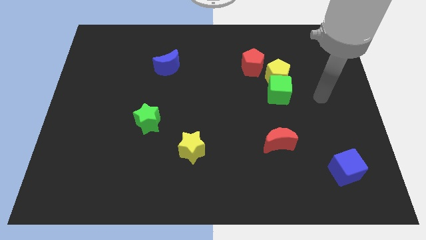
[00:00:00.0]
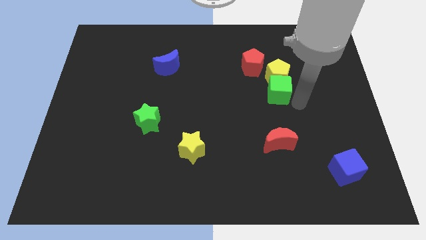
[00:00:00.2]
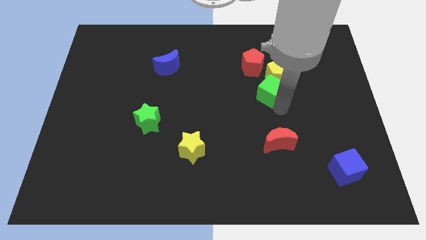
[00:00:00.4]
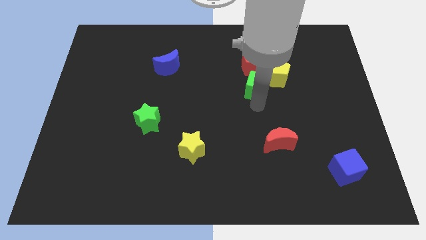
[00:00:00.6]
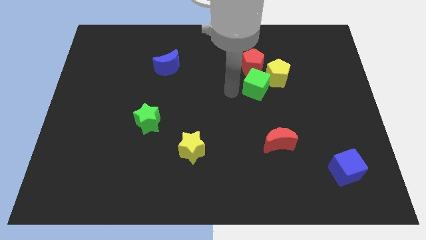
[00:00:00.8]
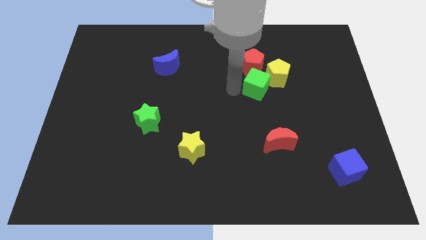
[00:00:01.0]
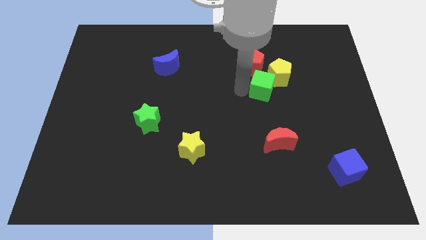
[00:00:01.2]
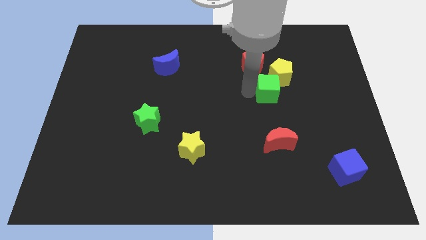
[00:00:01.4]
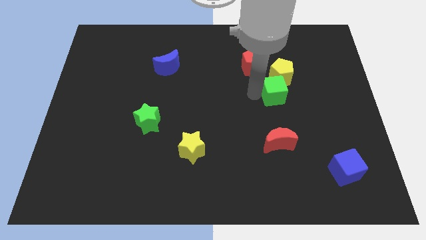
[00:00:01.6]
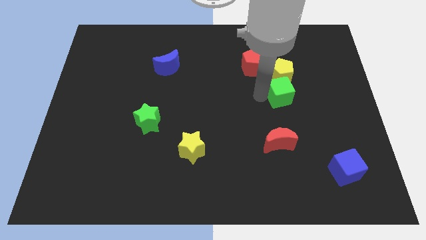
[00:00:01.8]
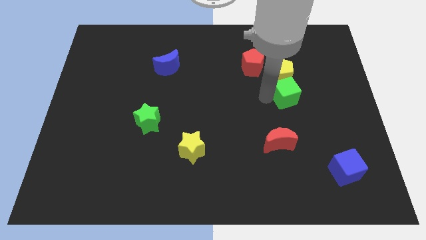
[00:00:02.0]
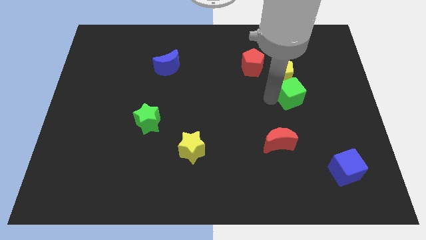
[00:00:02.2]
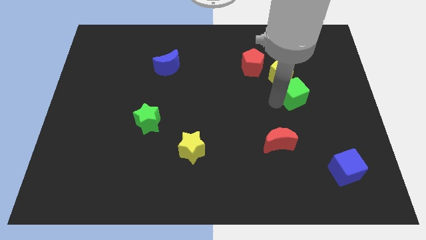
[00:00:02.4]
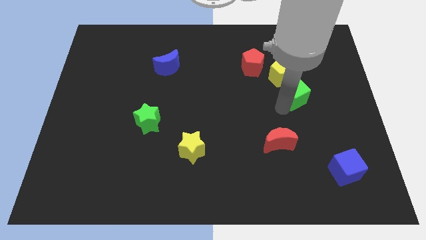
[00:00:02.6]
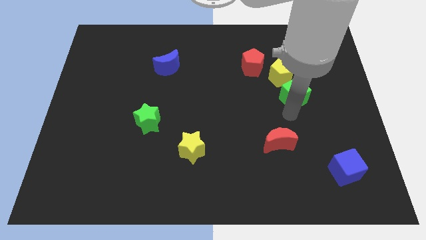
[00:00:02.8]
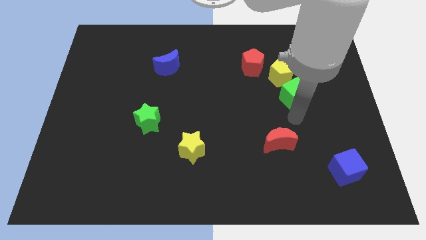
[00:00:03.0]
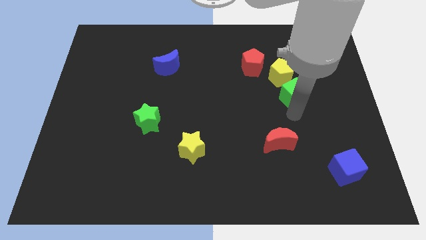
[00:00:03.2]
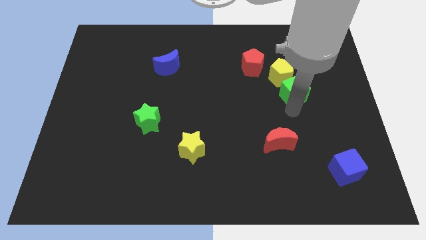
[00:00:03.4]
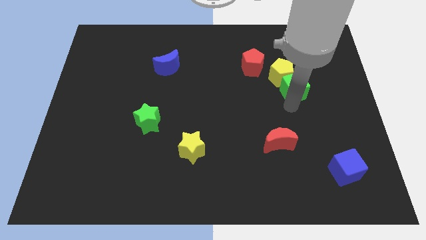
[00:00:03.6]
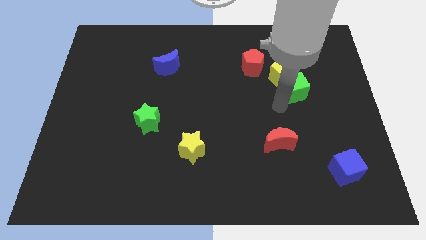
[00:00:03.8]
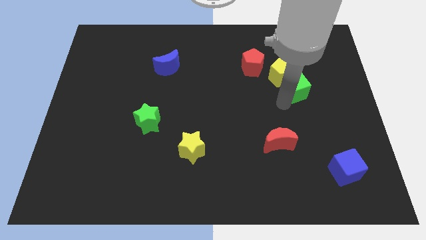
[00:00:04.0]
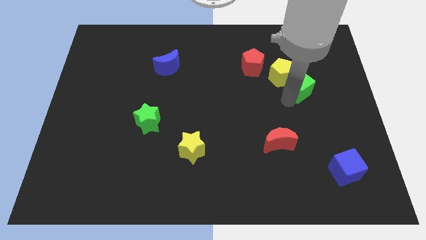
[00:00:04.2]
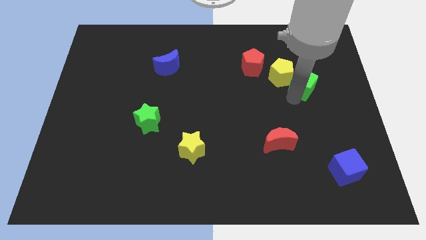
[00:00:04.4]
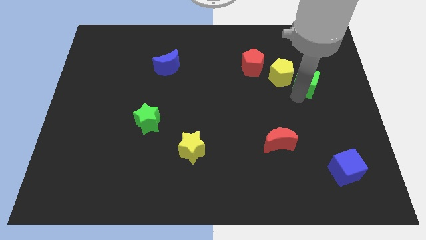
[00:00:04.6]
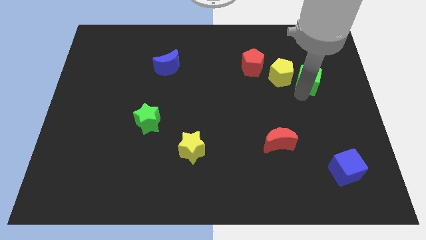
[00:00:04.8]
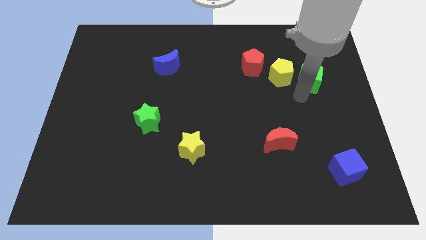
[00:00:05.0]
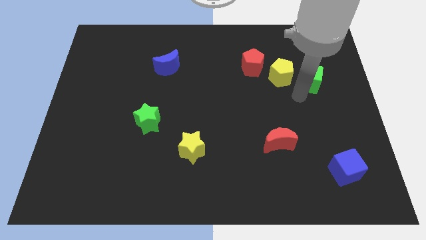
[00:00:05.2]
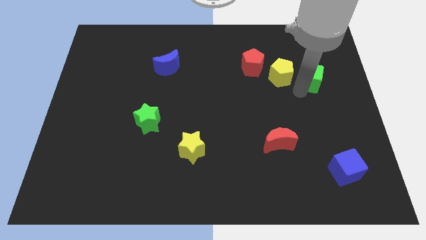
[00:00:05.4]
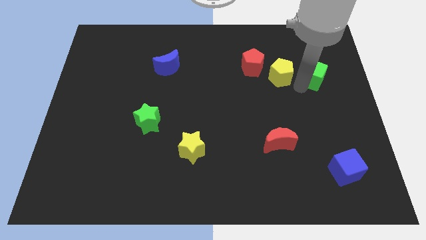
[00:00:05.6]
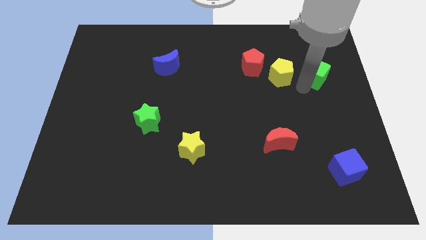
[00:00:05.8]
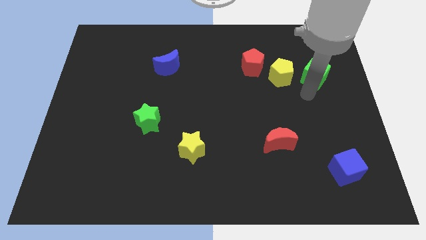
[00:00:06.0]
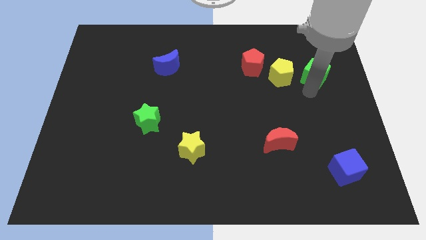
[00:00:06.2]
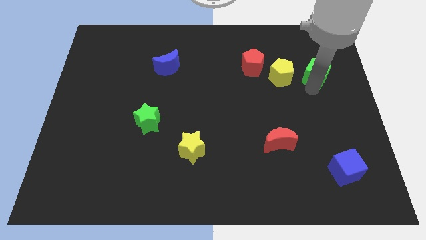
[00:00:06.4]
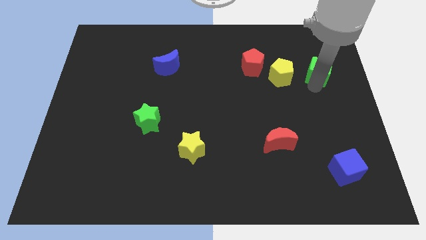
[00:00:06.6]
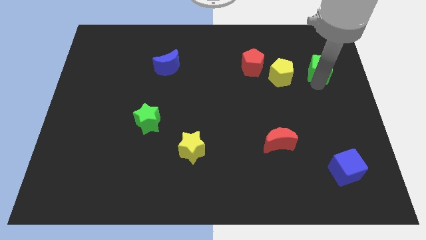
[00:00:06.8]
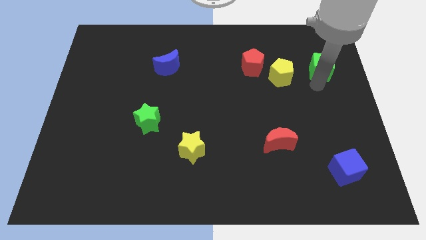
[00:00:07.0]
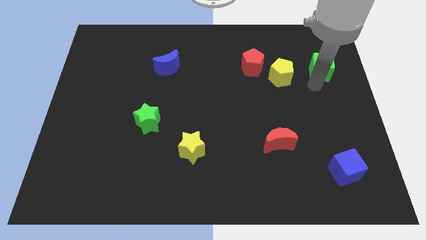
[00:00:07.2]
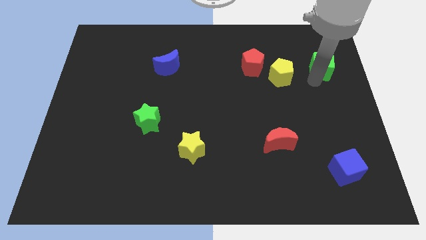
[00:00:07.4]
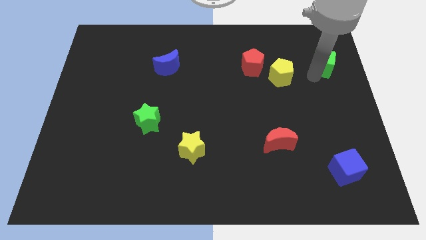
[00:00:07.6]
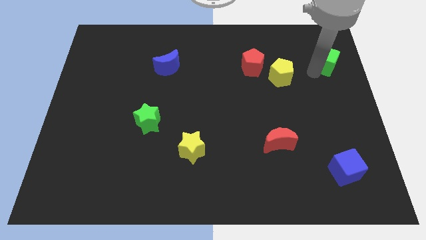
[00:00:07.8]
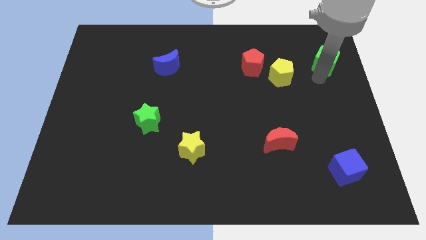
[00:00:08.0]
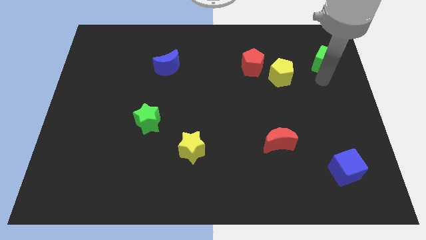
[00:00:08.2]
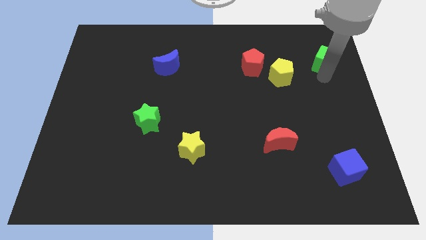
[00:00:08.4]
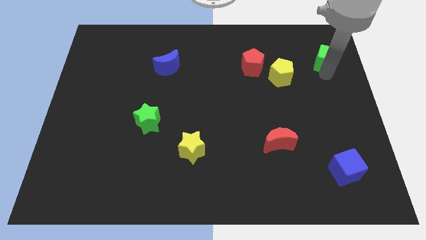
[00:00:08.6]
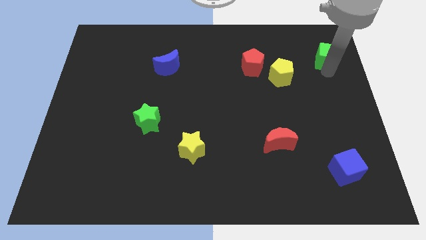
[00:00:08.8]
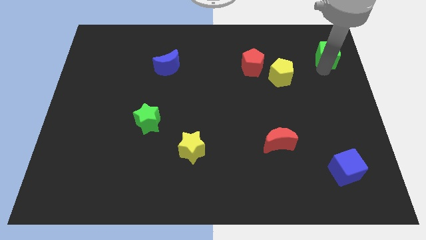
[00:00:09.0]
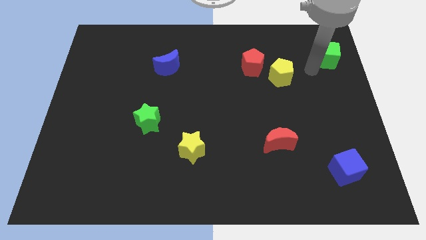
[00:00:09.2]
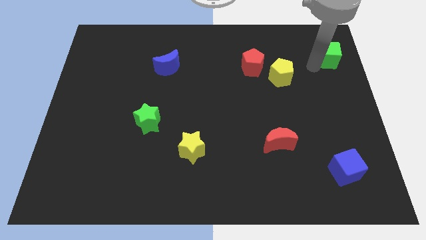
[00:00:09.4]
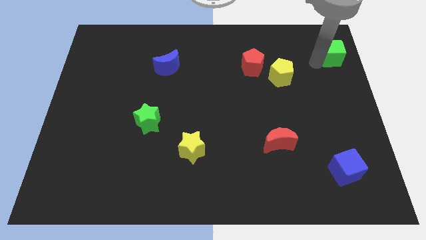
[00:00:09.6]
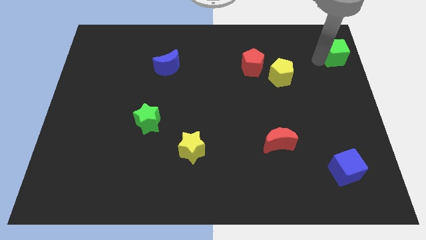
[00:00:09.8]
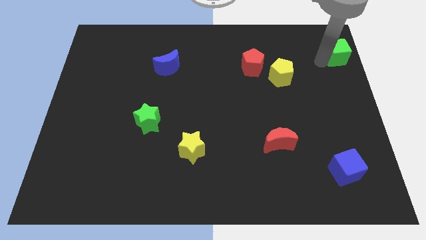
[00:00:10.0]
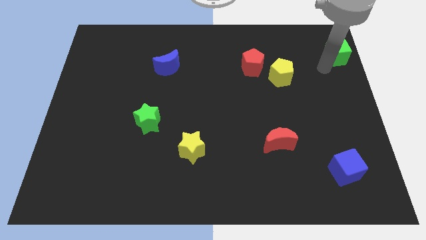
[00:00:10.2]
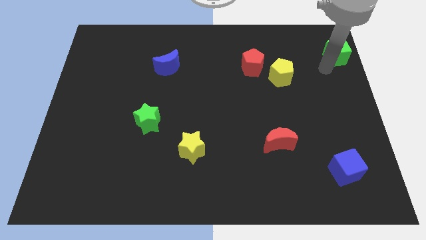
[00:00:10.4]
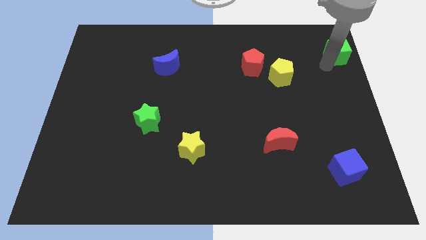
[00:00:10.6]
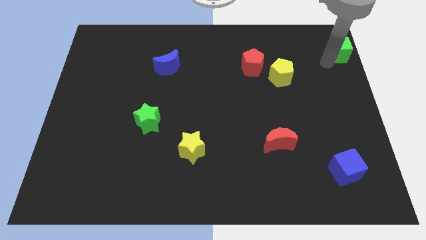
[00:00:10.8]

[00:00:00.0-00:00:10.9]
put the green cube to the upper right corner
